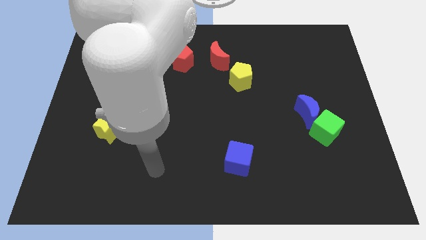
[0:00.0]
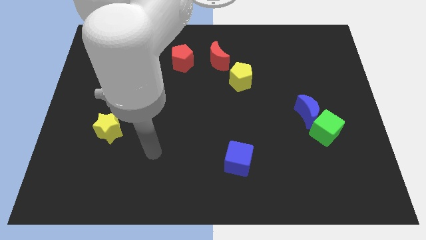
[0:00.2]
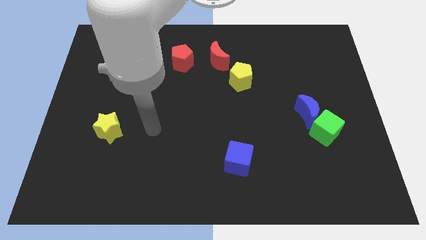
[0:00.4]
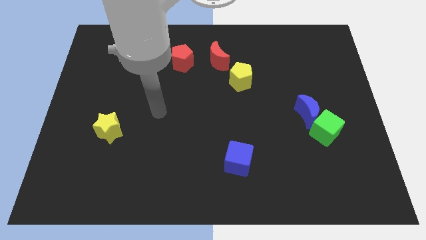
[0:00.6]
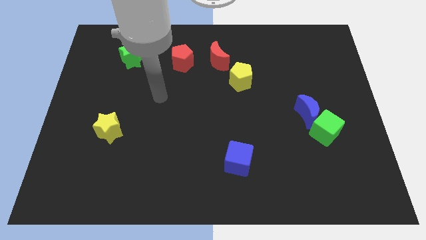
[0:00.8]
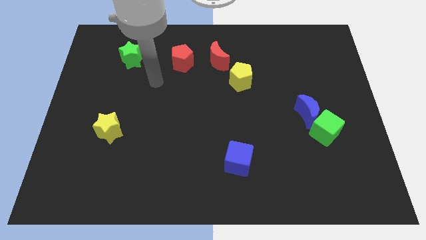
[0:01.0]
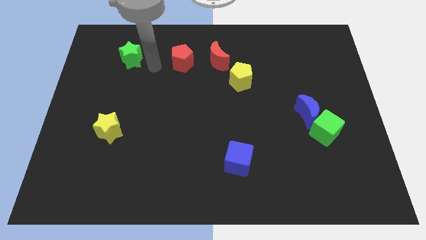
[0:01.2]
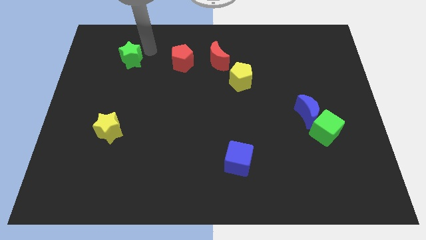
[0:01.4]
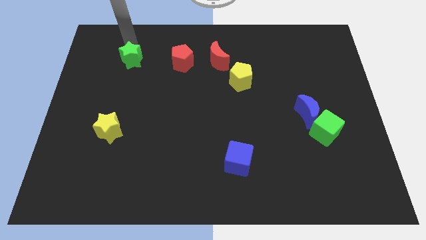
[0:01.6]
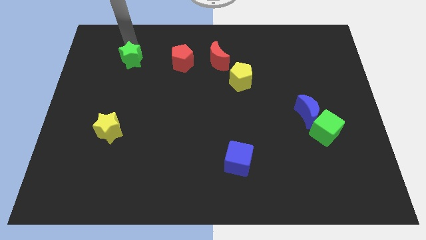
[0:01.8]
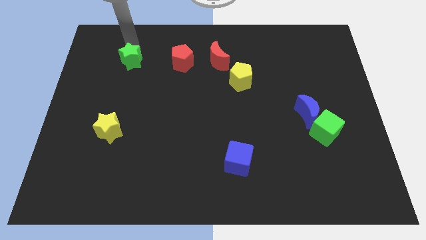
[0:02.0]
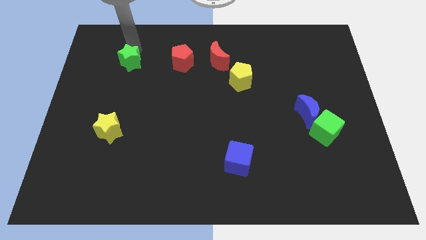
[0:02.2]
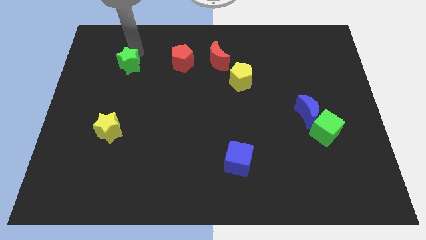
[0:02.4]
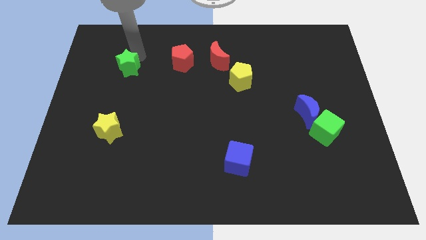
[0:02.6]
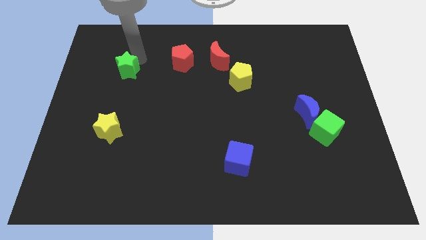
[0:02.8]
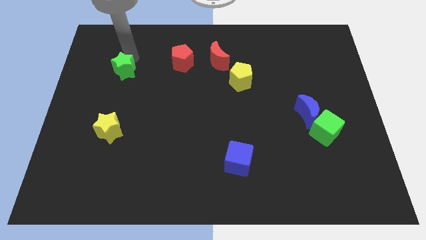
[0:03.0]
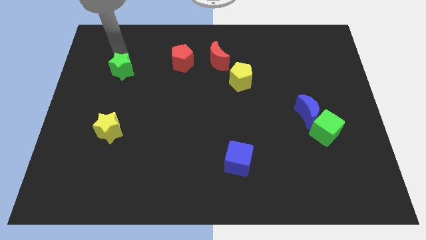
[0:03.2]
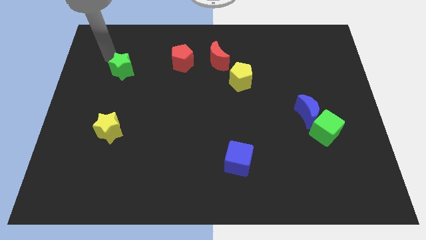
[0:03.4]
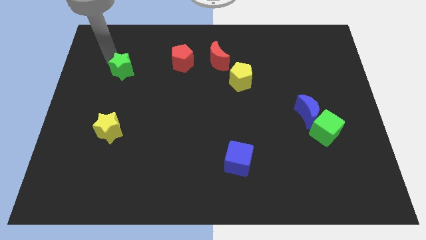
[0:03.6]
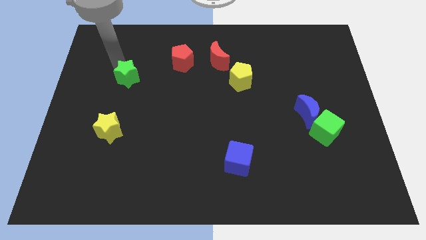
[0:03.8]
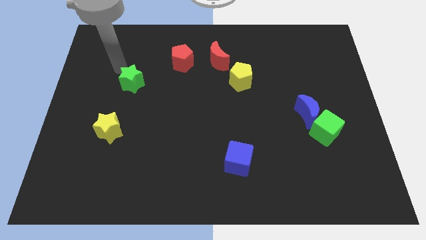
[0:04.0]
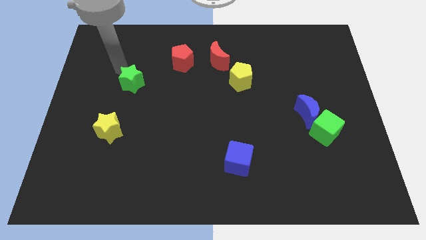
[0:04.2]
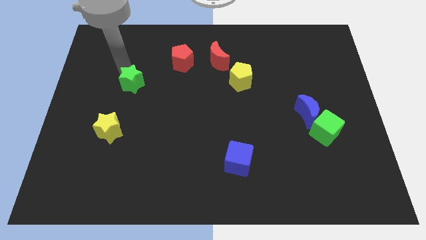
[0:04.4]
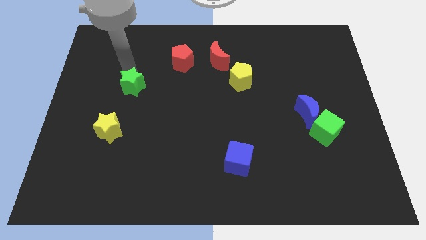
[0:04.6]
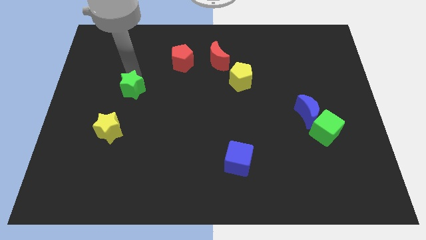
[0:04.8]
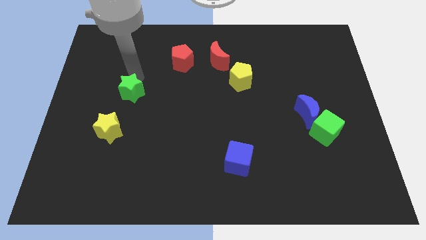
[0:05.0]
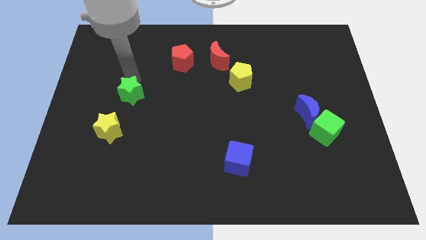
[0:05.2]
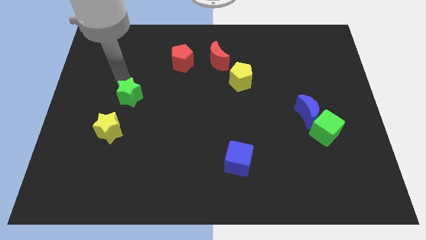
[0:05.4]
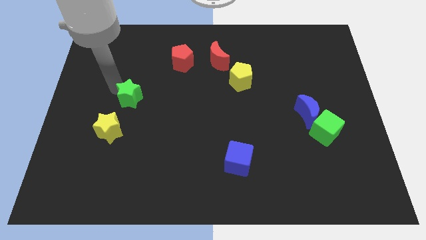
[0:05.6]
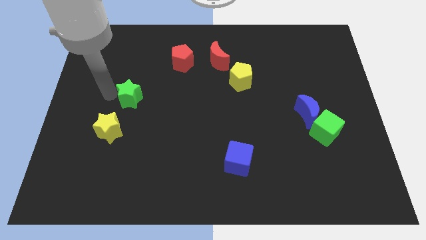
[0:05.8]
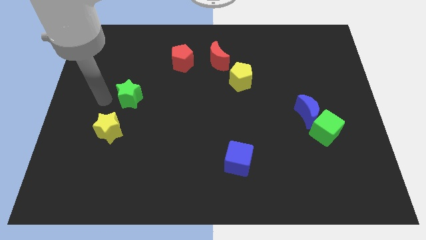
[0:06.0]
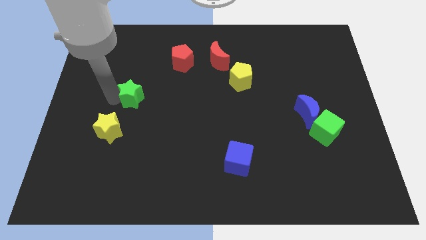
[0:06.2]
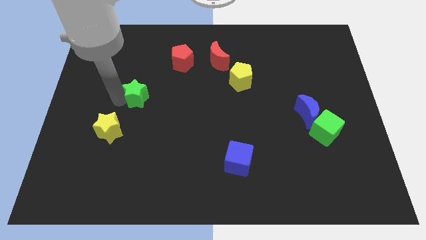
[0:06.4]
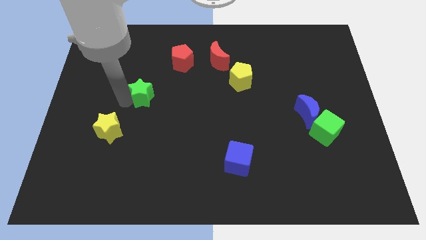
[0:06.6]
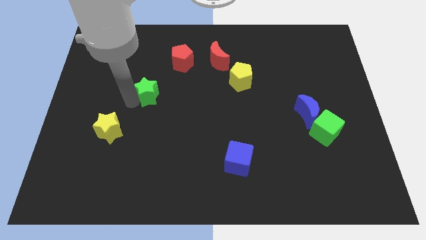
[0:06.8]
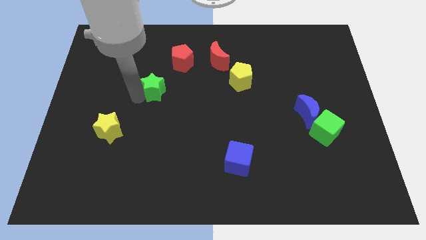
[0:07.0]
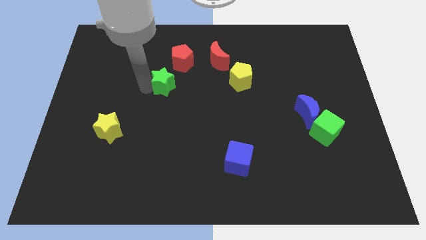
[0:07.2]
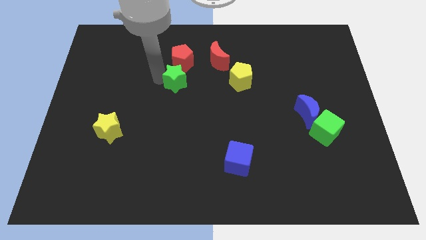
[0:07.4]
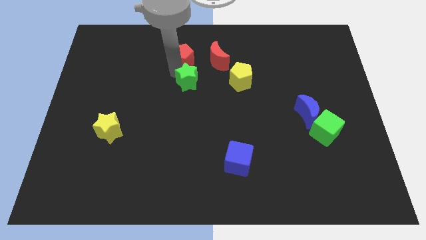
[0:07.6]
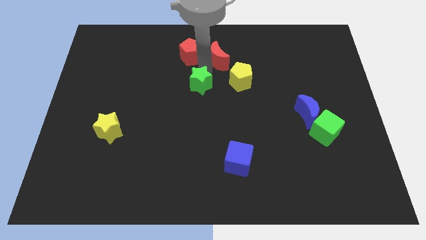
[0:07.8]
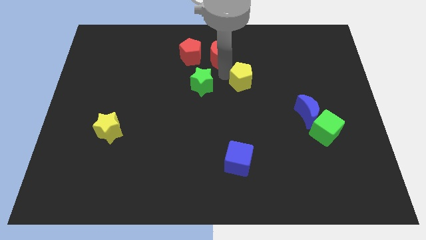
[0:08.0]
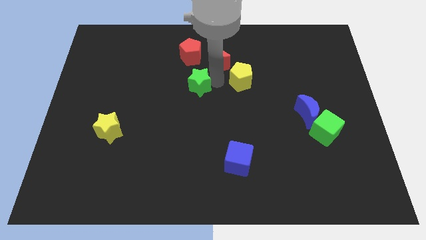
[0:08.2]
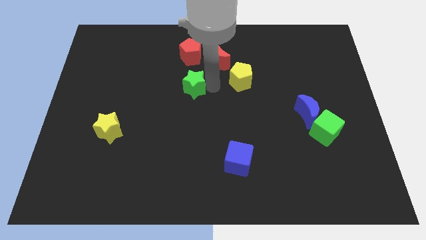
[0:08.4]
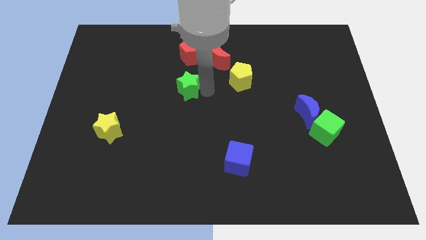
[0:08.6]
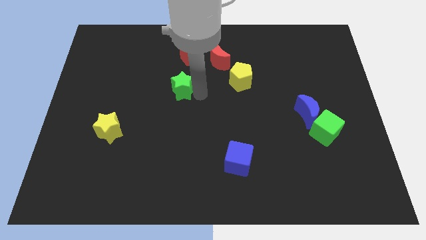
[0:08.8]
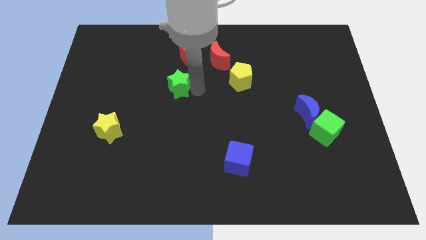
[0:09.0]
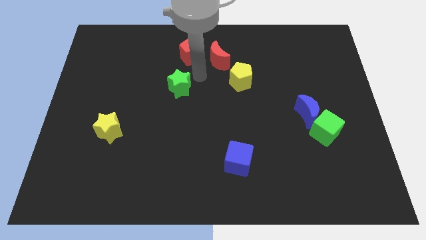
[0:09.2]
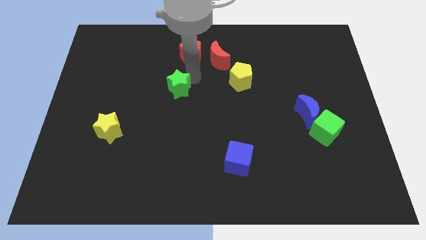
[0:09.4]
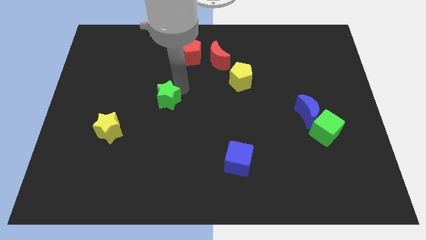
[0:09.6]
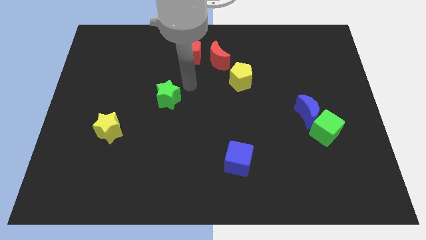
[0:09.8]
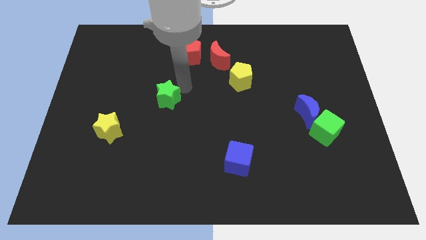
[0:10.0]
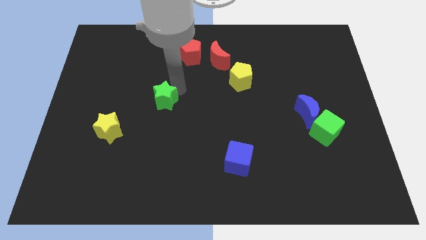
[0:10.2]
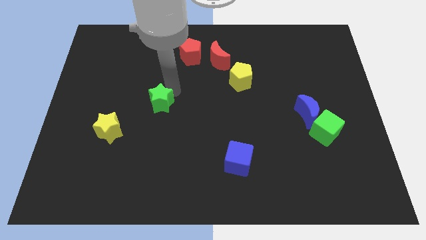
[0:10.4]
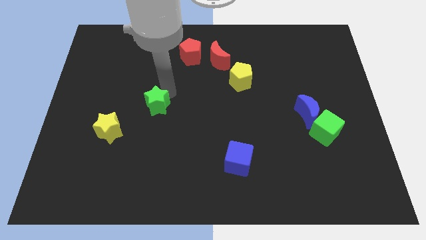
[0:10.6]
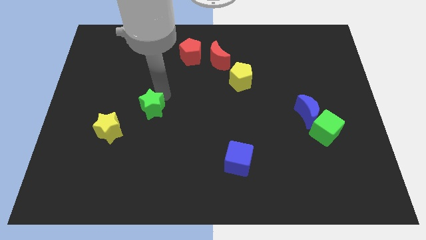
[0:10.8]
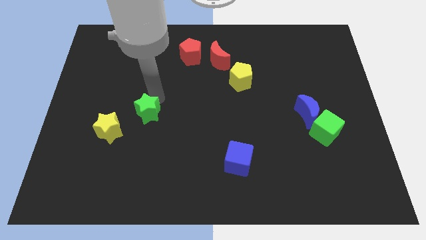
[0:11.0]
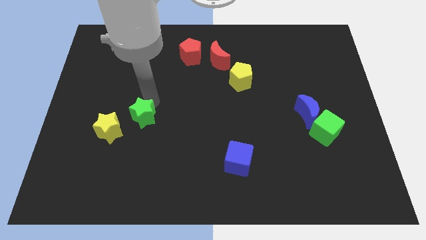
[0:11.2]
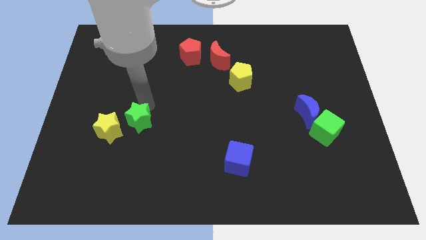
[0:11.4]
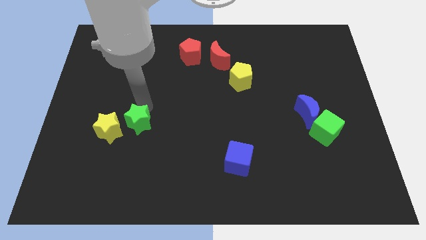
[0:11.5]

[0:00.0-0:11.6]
push the green star down

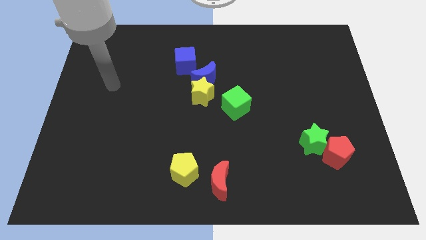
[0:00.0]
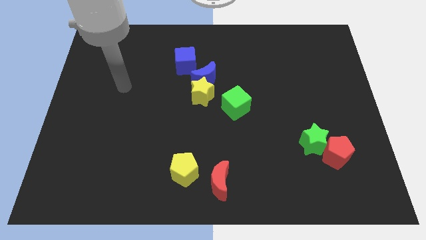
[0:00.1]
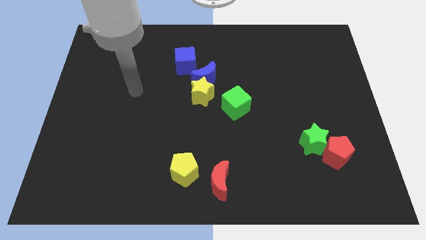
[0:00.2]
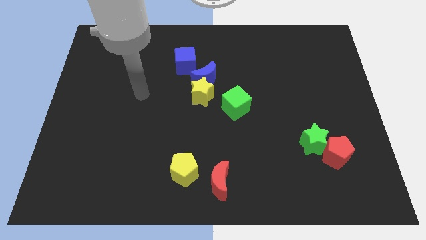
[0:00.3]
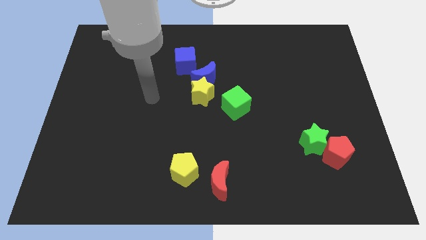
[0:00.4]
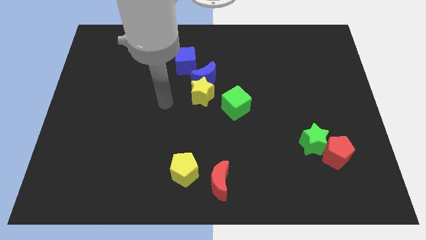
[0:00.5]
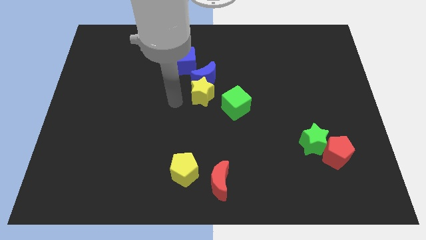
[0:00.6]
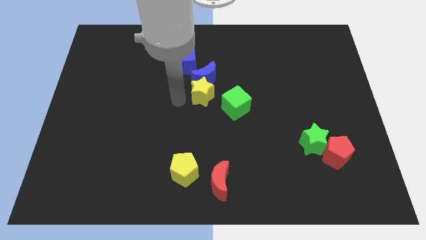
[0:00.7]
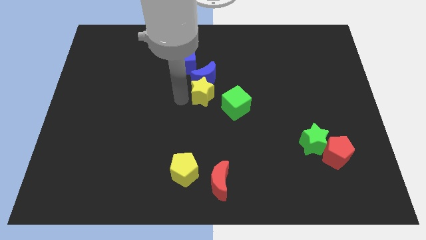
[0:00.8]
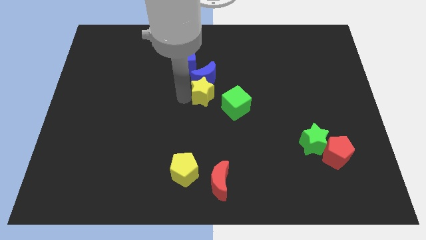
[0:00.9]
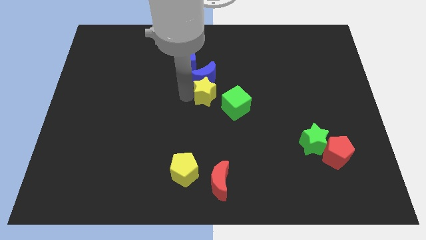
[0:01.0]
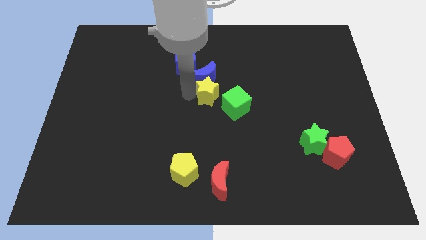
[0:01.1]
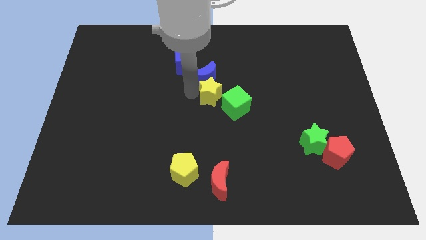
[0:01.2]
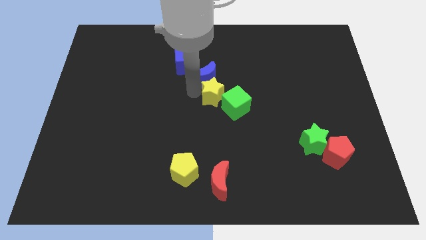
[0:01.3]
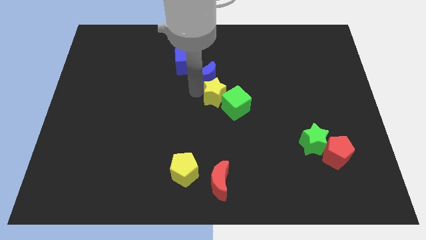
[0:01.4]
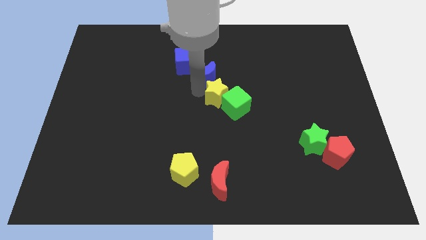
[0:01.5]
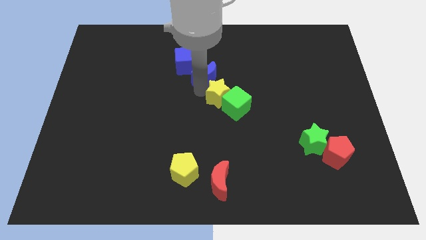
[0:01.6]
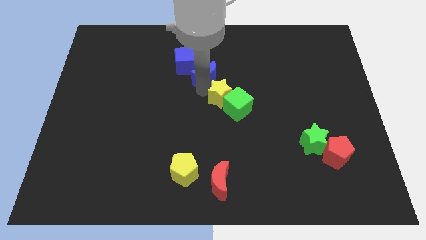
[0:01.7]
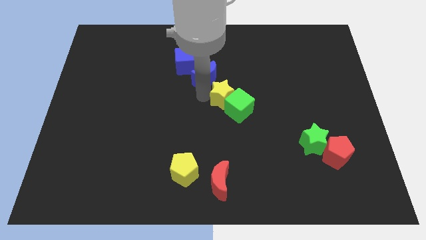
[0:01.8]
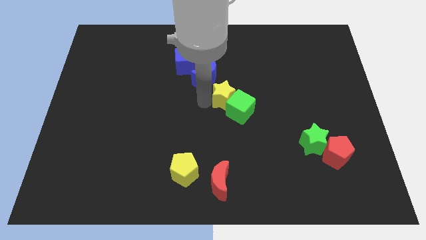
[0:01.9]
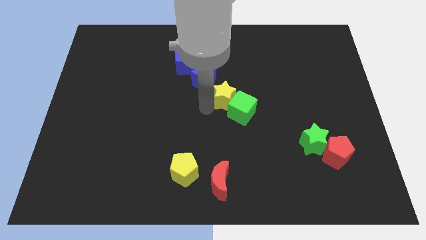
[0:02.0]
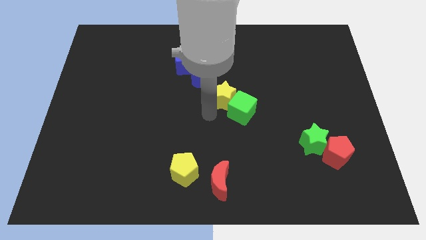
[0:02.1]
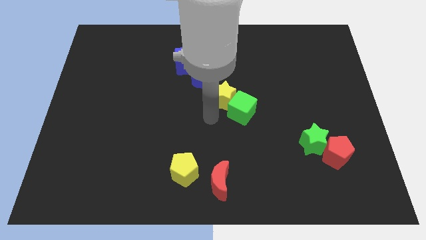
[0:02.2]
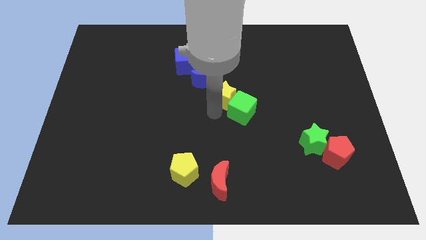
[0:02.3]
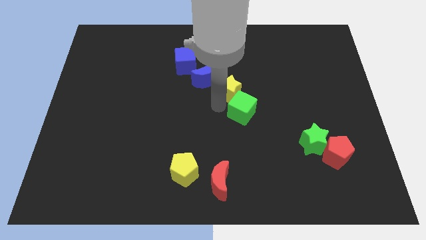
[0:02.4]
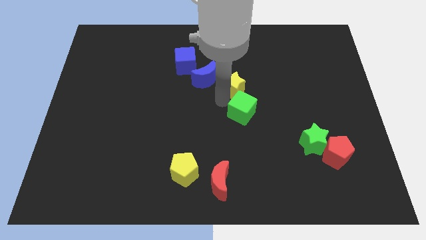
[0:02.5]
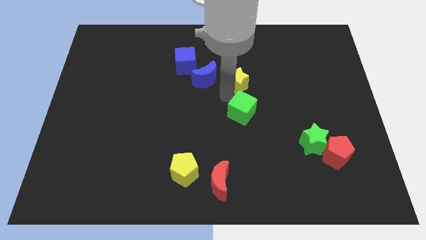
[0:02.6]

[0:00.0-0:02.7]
push the yellow star a little upwards and to the right
